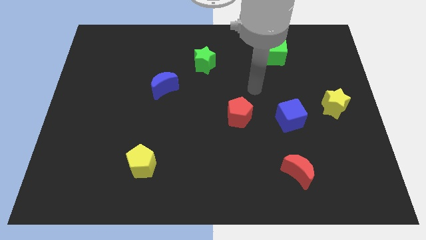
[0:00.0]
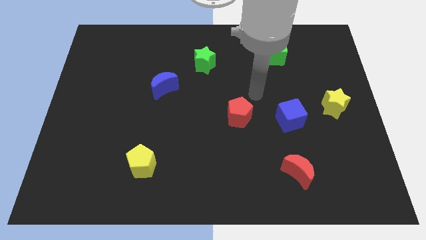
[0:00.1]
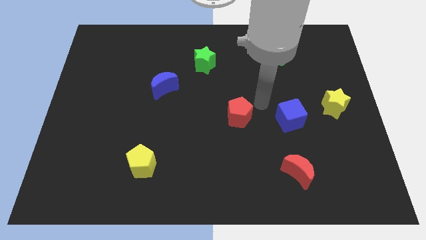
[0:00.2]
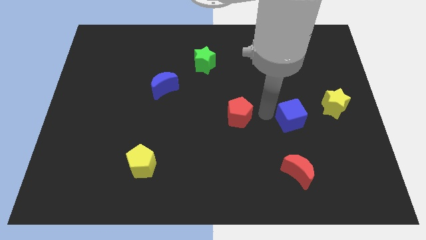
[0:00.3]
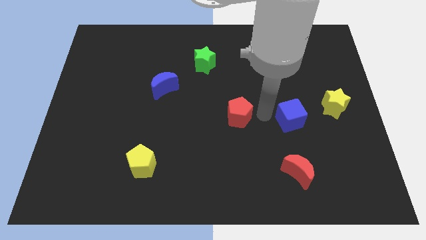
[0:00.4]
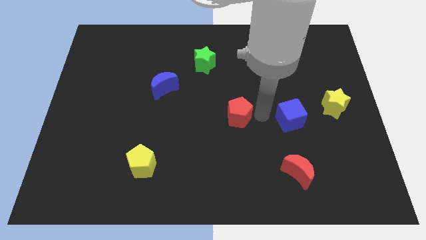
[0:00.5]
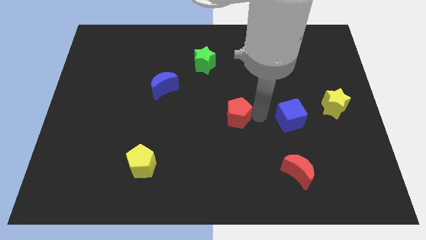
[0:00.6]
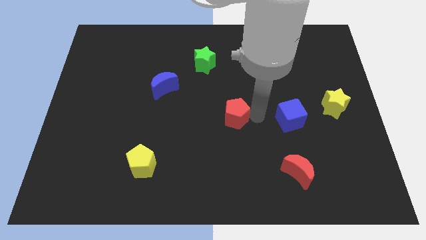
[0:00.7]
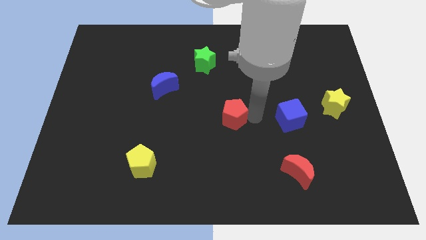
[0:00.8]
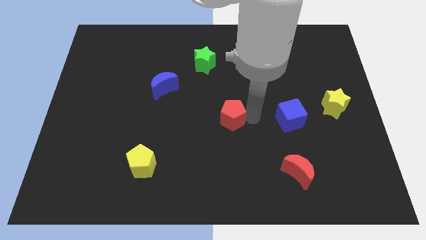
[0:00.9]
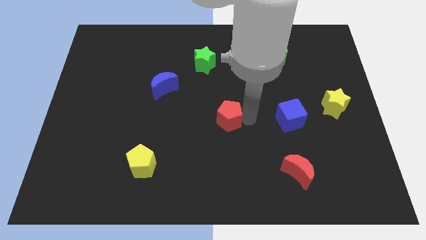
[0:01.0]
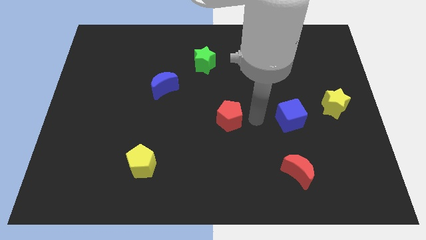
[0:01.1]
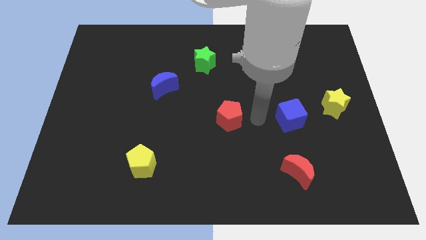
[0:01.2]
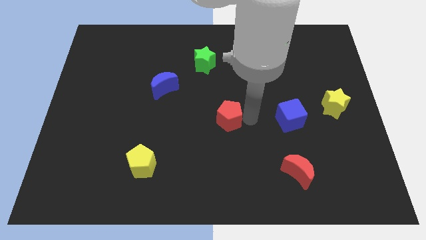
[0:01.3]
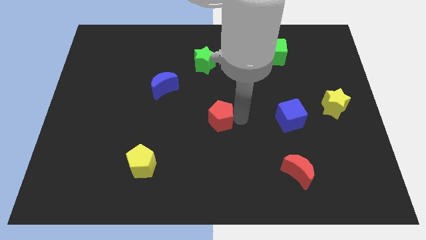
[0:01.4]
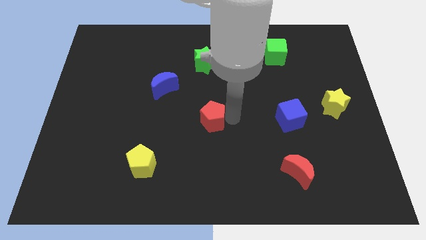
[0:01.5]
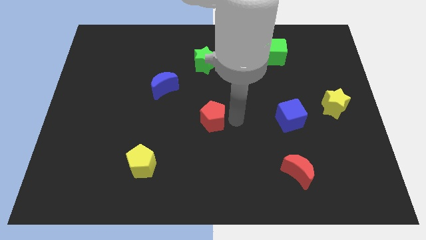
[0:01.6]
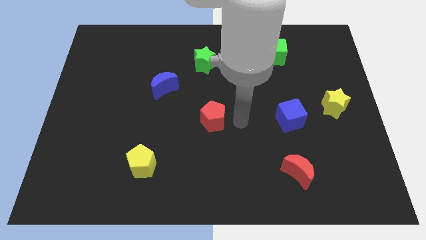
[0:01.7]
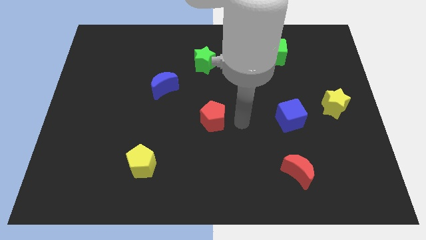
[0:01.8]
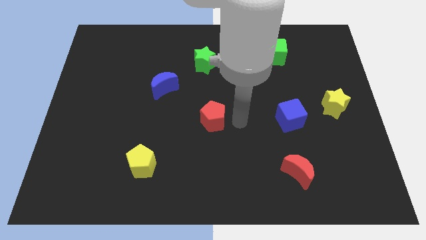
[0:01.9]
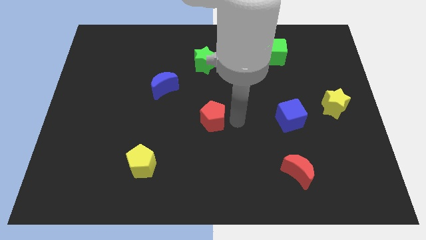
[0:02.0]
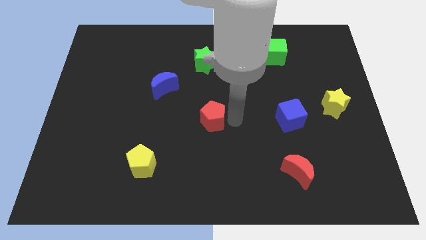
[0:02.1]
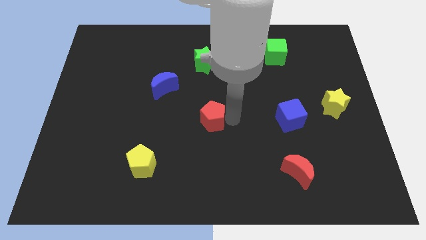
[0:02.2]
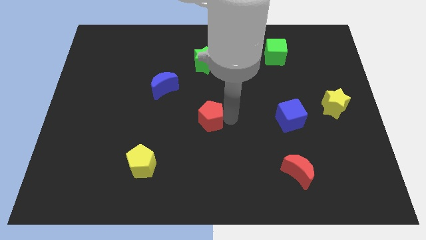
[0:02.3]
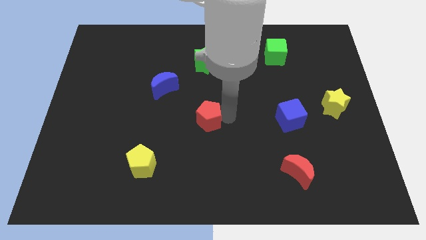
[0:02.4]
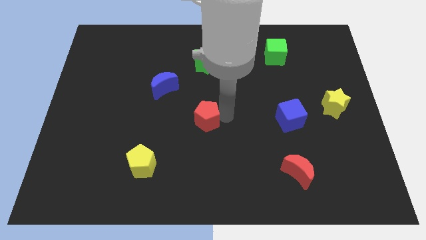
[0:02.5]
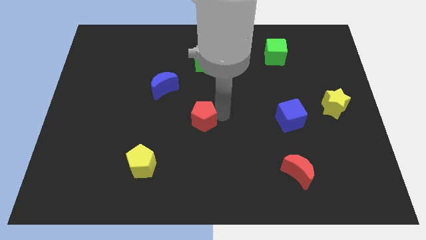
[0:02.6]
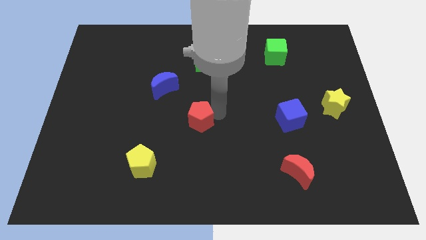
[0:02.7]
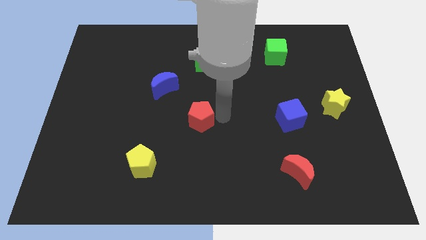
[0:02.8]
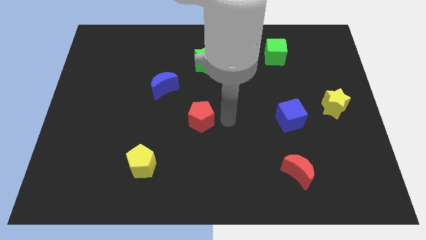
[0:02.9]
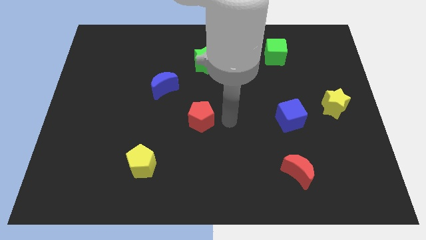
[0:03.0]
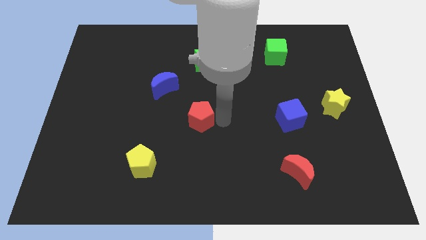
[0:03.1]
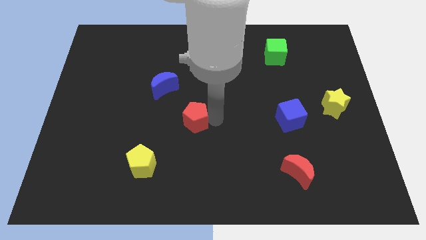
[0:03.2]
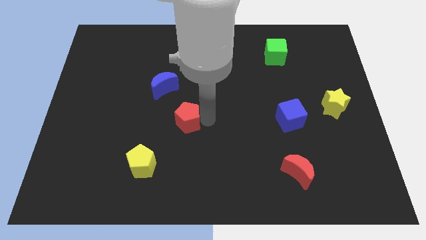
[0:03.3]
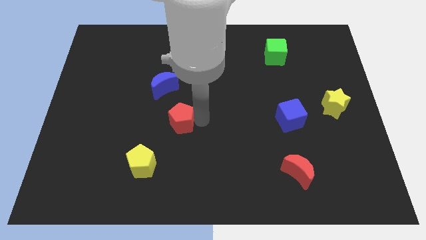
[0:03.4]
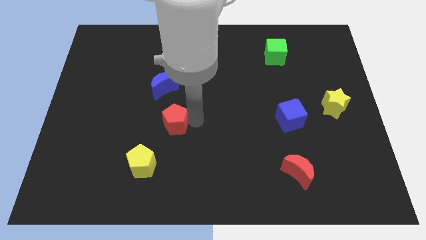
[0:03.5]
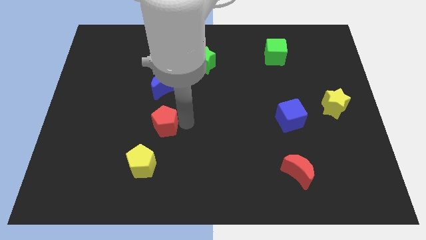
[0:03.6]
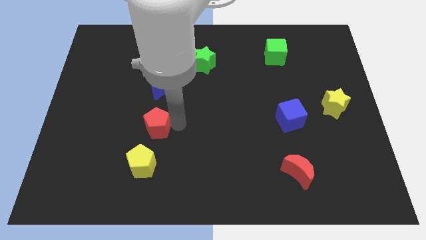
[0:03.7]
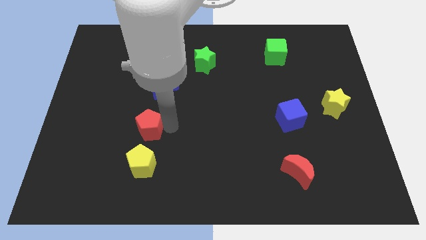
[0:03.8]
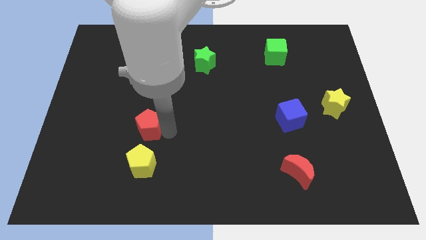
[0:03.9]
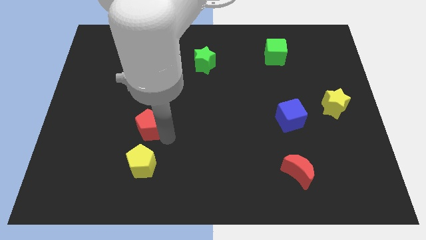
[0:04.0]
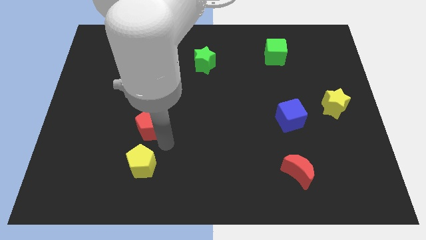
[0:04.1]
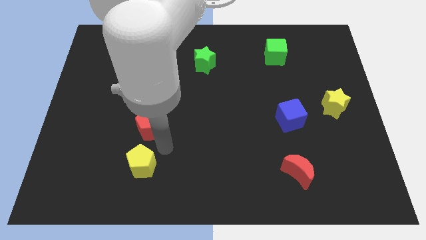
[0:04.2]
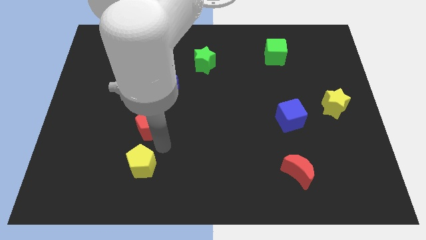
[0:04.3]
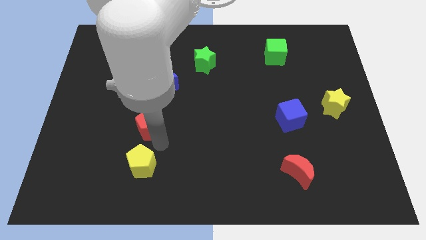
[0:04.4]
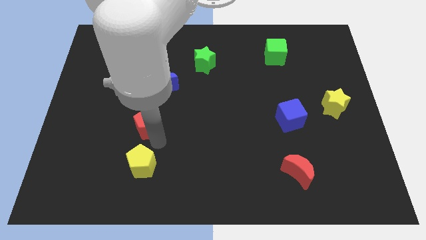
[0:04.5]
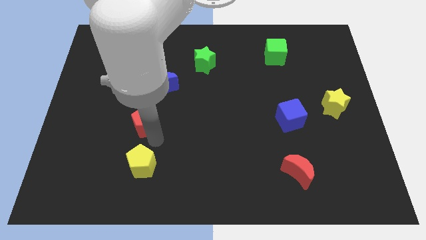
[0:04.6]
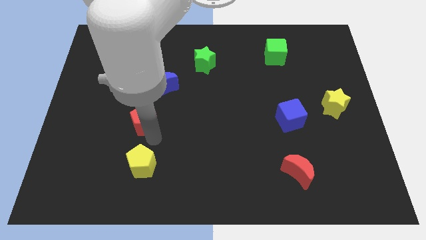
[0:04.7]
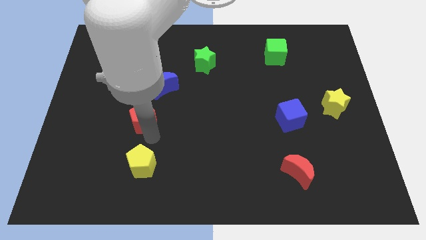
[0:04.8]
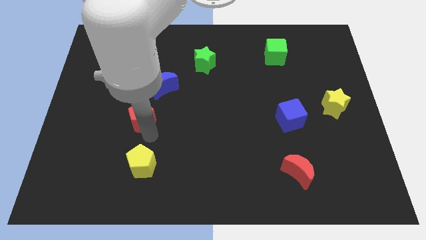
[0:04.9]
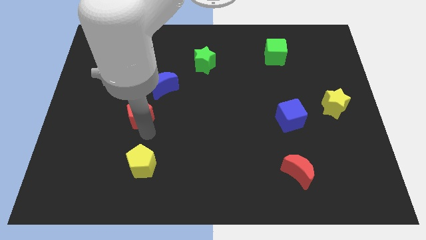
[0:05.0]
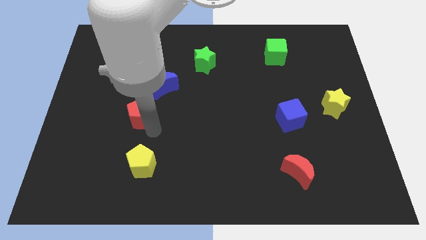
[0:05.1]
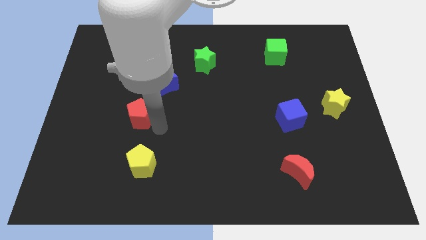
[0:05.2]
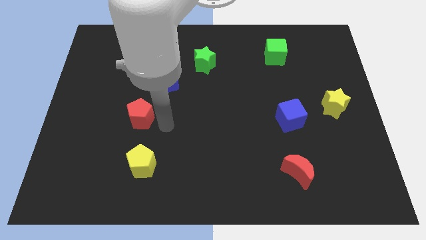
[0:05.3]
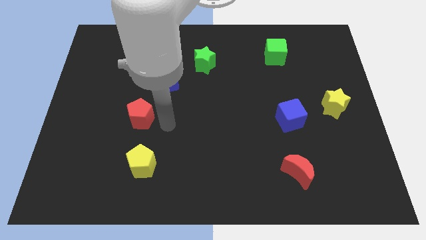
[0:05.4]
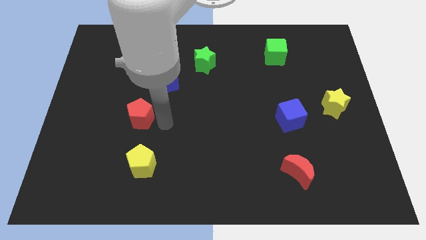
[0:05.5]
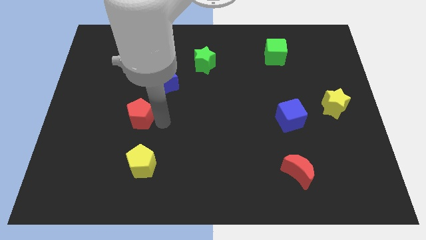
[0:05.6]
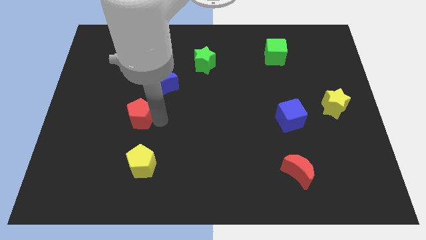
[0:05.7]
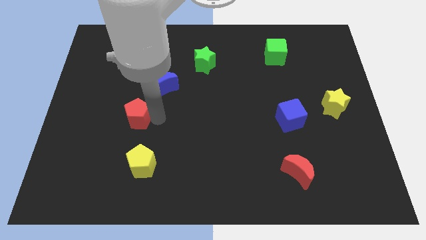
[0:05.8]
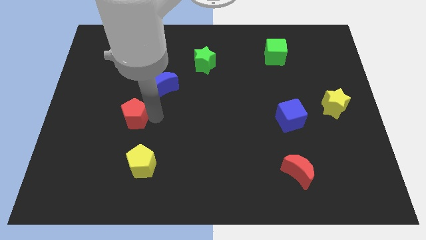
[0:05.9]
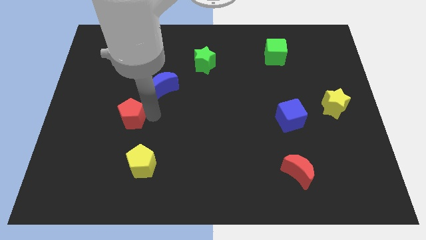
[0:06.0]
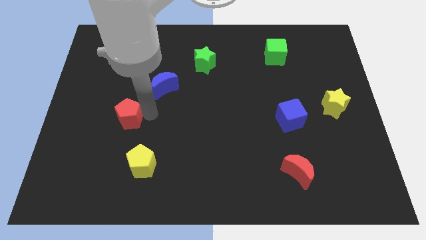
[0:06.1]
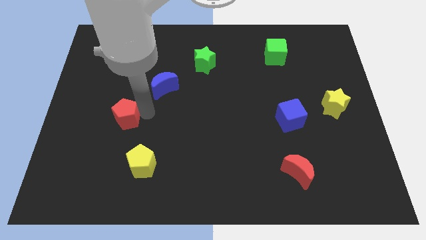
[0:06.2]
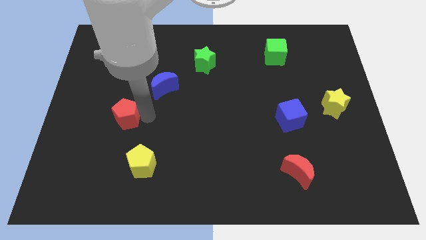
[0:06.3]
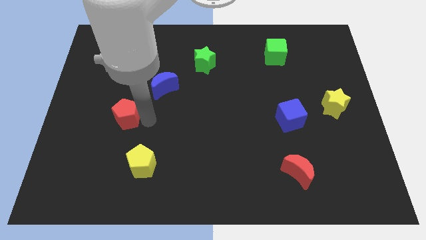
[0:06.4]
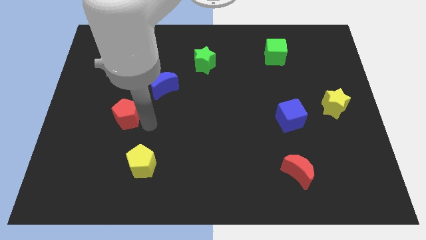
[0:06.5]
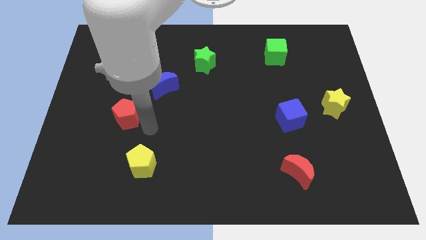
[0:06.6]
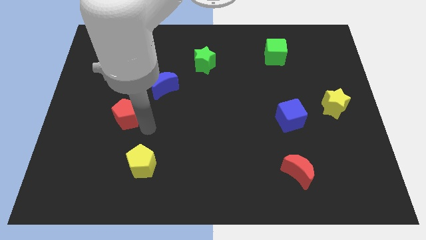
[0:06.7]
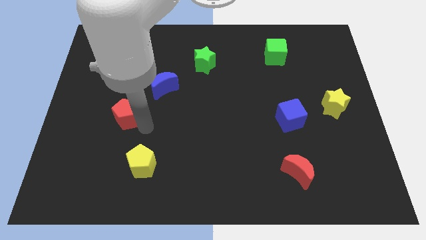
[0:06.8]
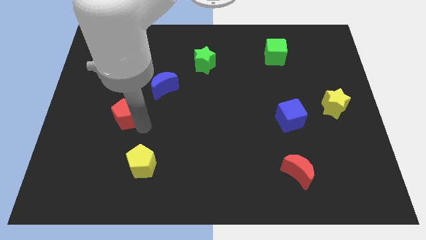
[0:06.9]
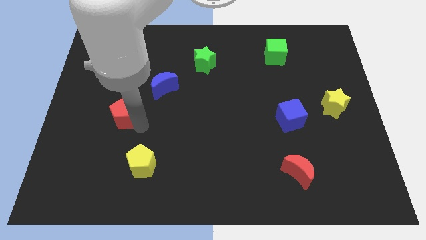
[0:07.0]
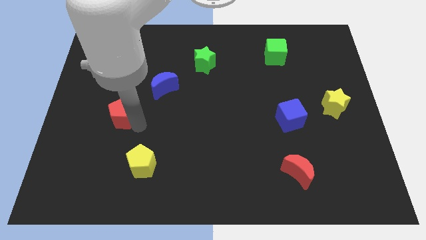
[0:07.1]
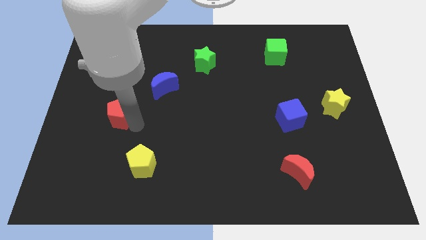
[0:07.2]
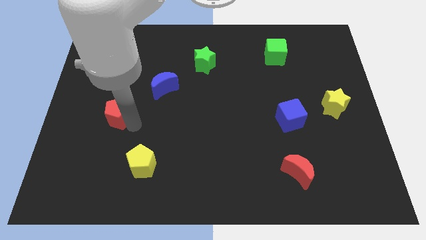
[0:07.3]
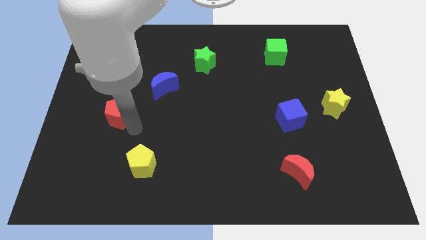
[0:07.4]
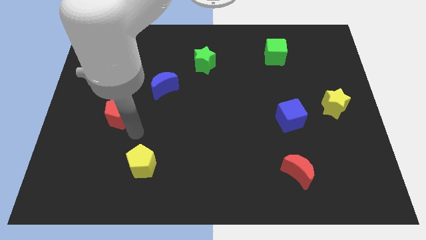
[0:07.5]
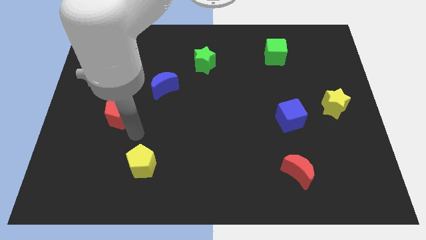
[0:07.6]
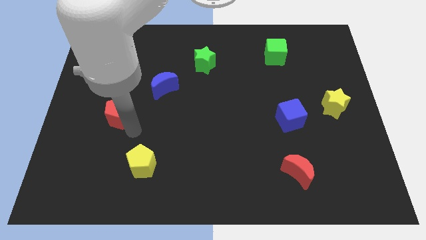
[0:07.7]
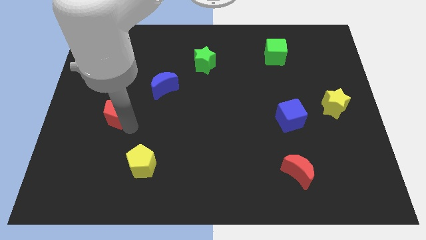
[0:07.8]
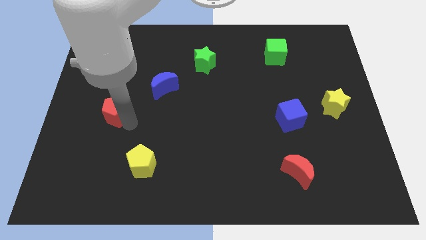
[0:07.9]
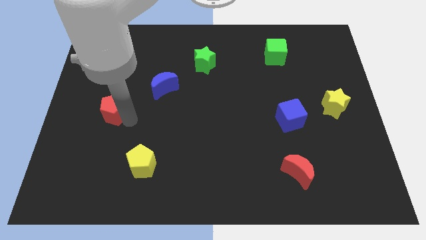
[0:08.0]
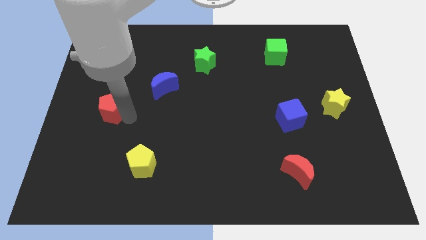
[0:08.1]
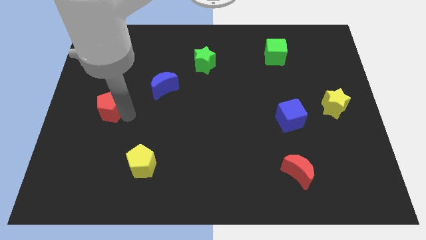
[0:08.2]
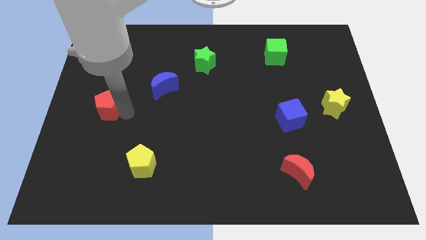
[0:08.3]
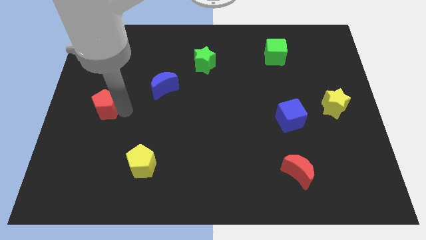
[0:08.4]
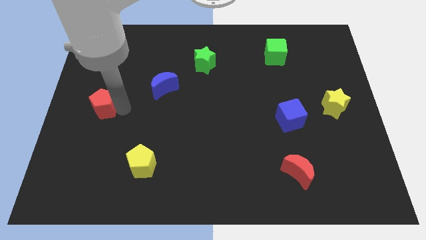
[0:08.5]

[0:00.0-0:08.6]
push the red pentagon to the left side of the board
